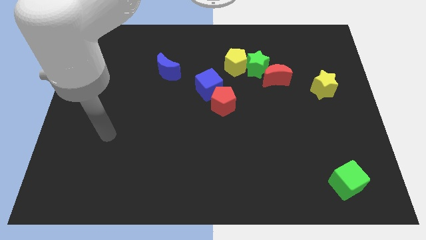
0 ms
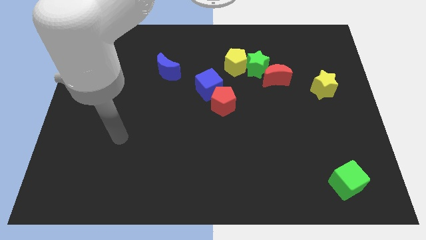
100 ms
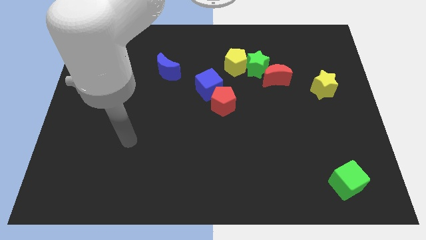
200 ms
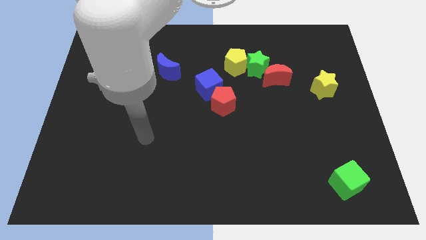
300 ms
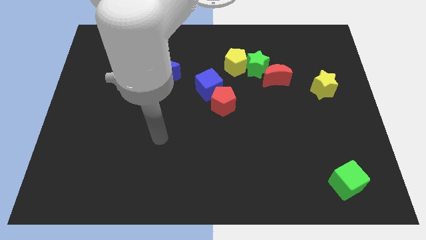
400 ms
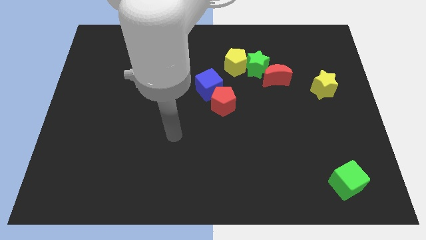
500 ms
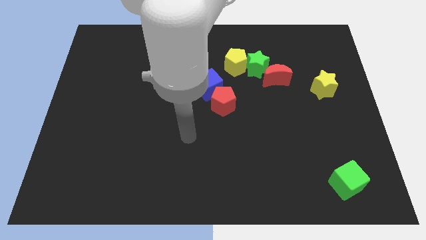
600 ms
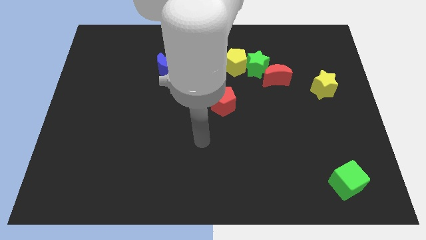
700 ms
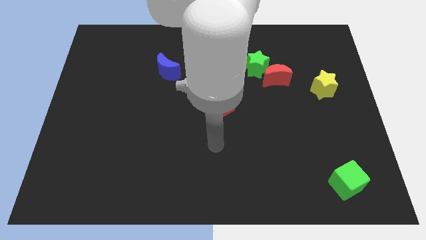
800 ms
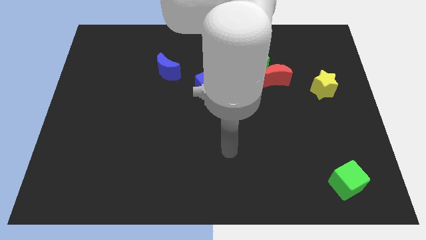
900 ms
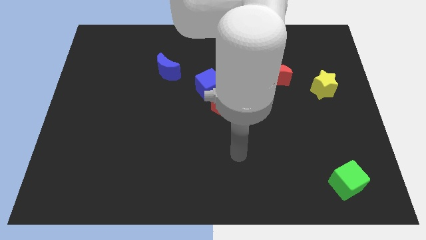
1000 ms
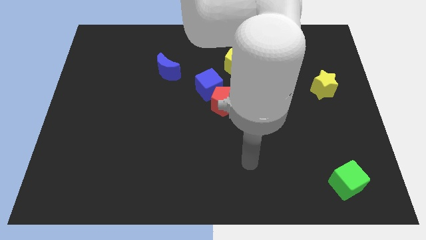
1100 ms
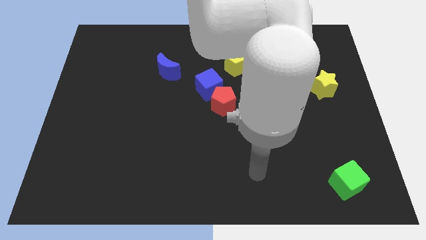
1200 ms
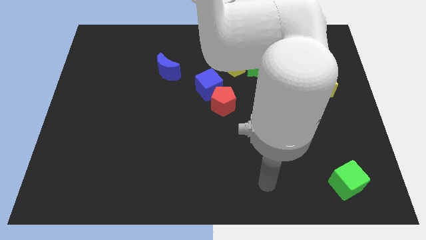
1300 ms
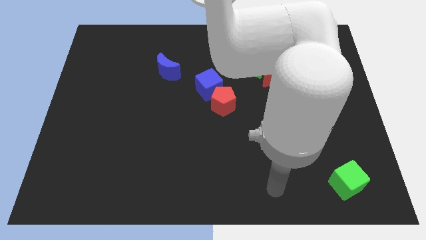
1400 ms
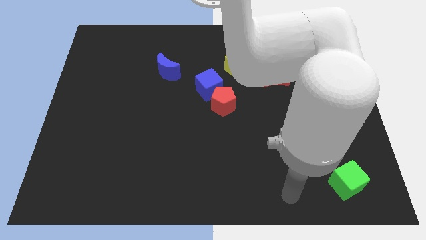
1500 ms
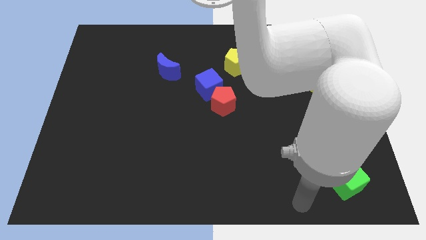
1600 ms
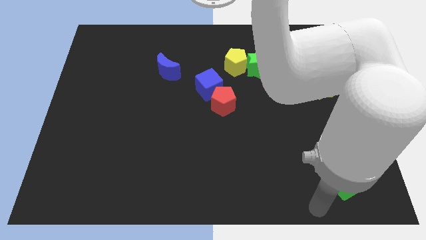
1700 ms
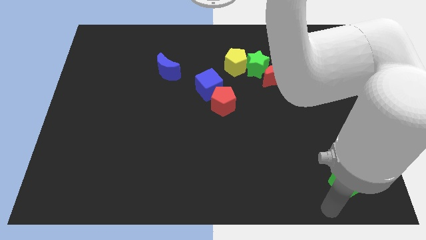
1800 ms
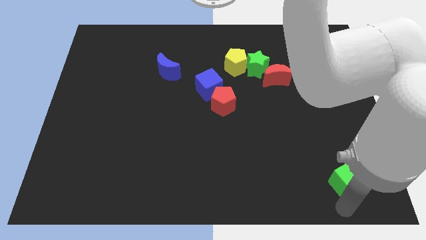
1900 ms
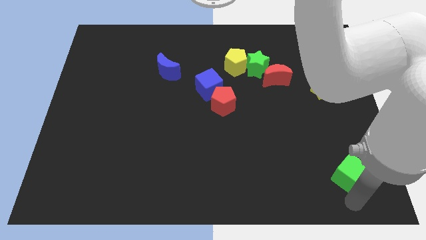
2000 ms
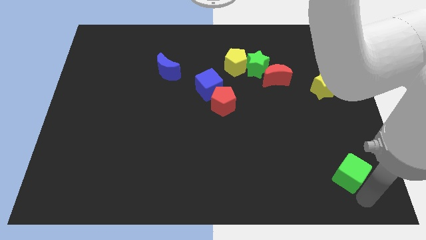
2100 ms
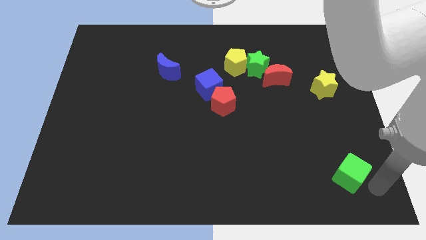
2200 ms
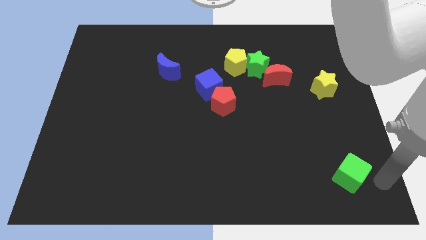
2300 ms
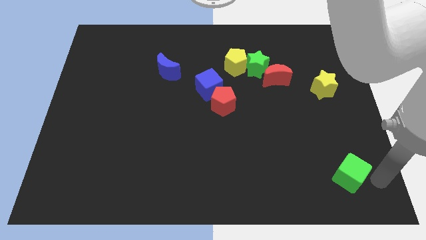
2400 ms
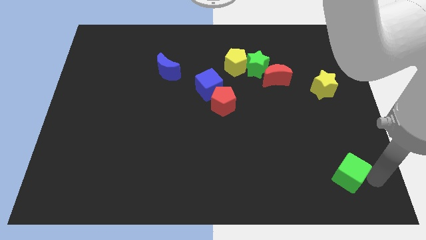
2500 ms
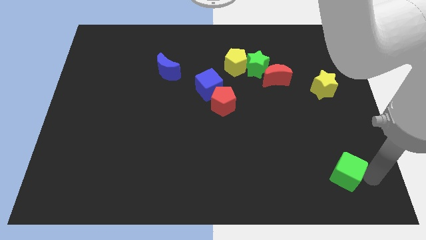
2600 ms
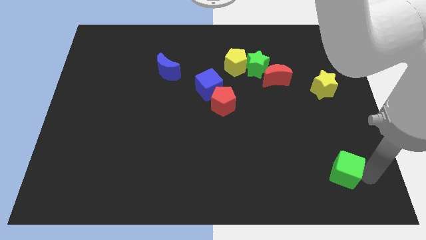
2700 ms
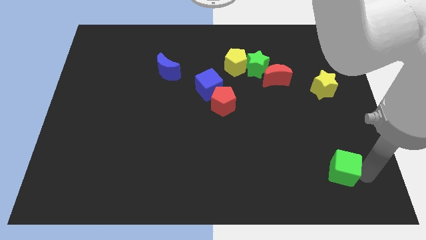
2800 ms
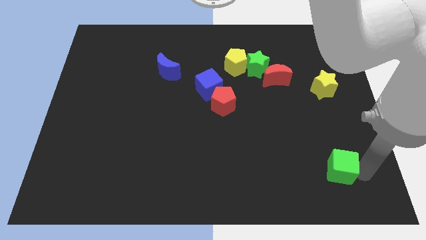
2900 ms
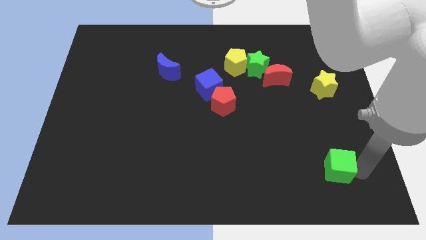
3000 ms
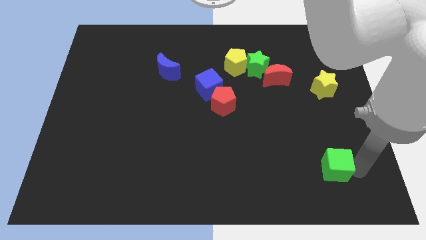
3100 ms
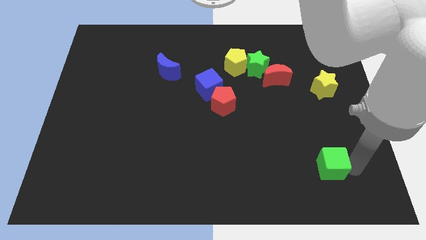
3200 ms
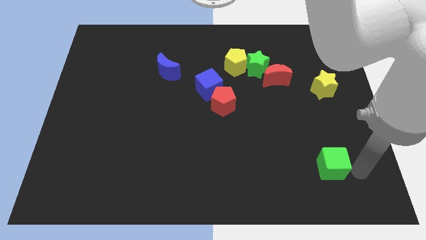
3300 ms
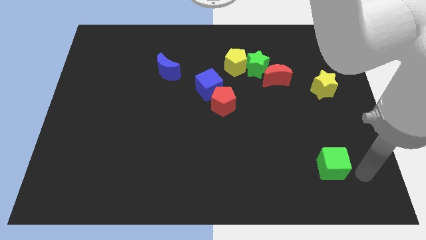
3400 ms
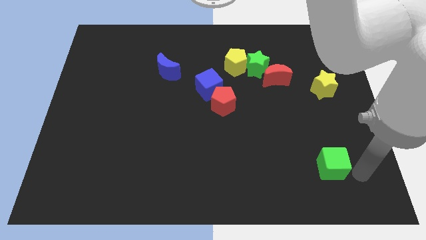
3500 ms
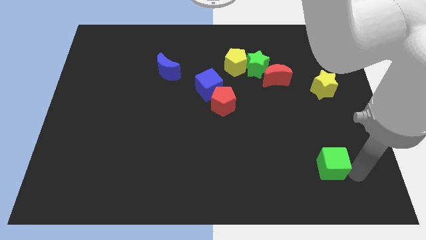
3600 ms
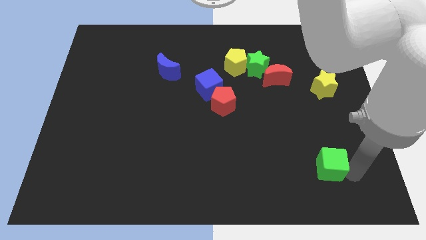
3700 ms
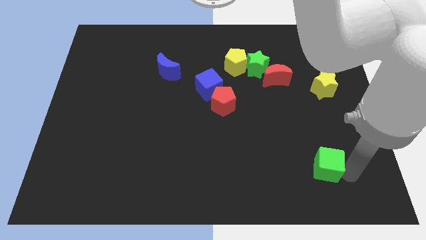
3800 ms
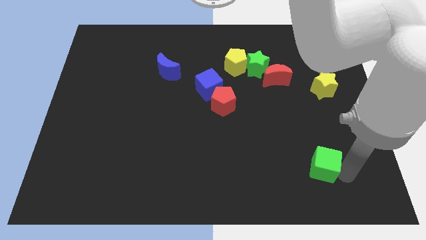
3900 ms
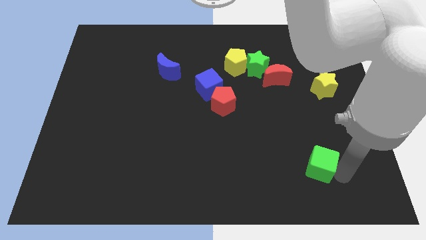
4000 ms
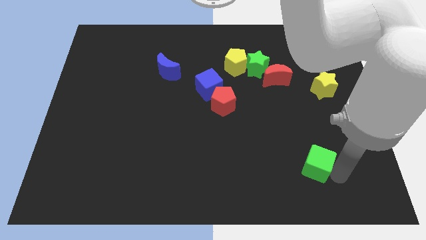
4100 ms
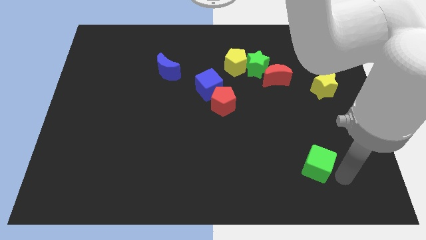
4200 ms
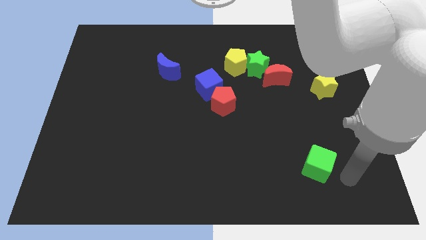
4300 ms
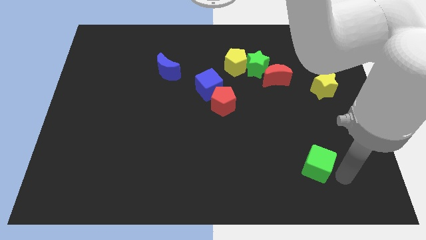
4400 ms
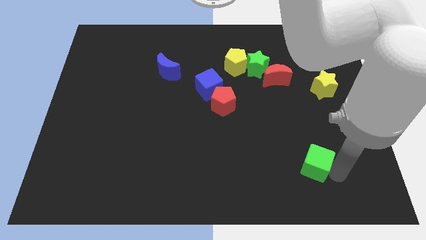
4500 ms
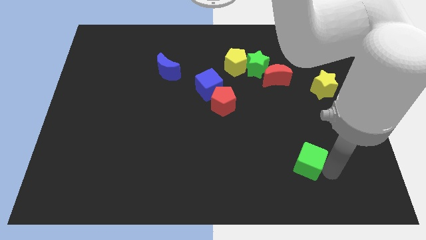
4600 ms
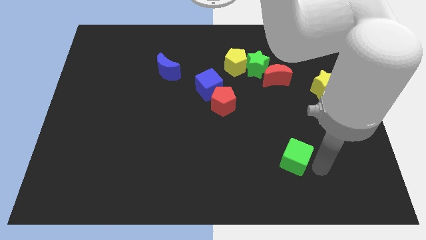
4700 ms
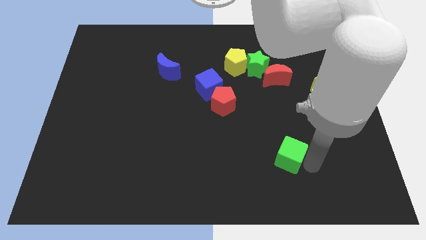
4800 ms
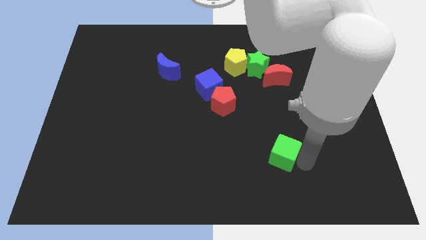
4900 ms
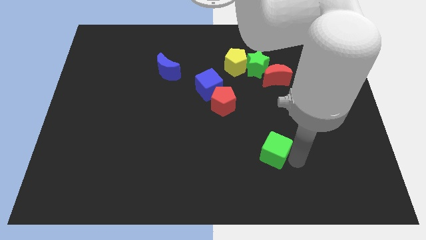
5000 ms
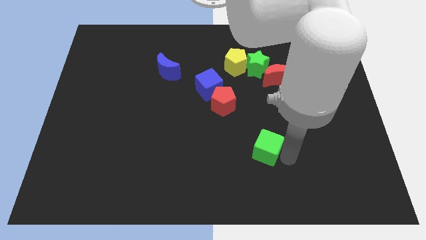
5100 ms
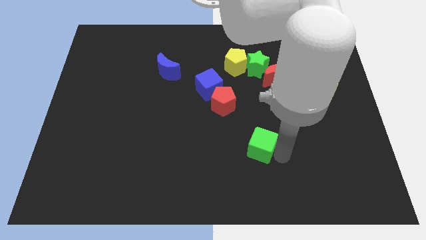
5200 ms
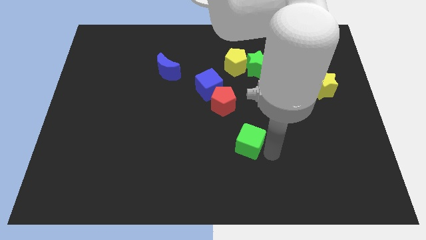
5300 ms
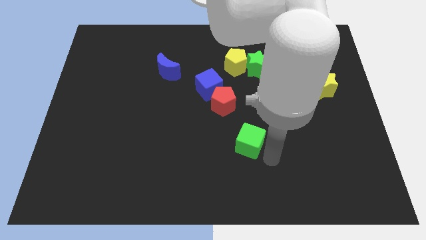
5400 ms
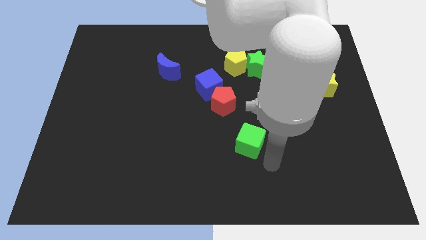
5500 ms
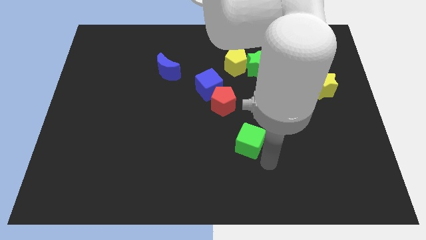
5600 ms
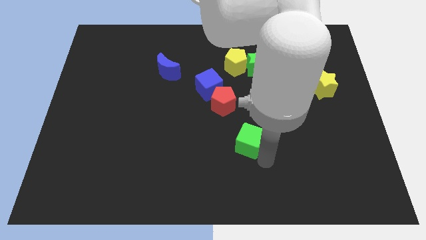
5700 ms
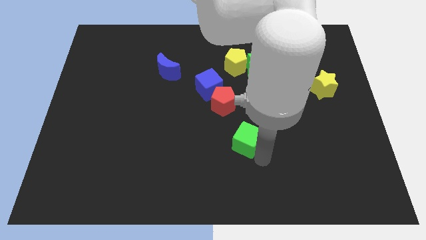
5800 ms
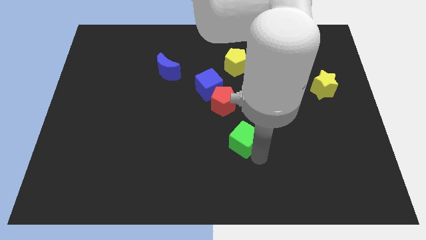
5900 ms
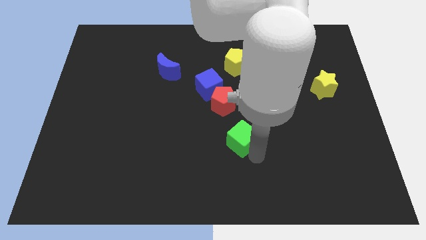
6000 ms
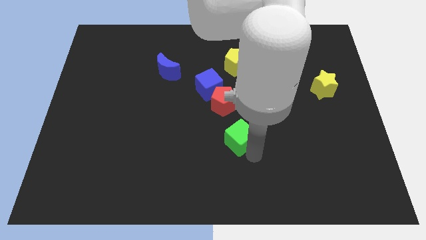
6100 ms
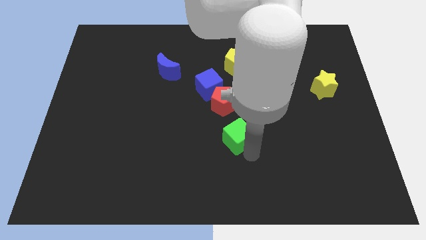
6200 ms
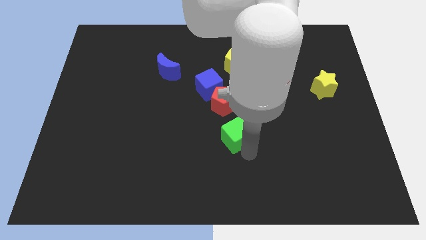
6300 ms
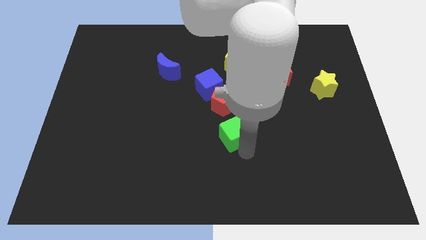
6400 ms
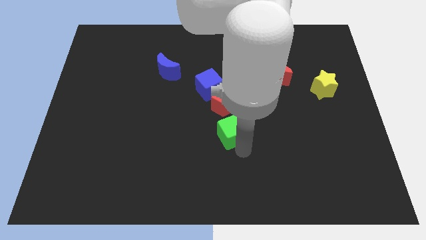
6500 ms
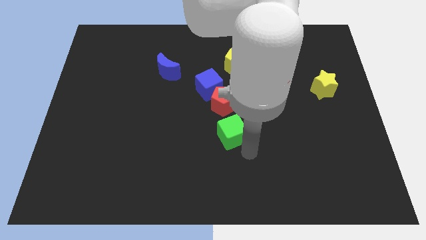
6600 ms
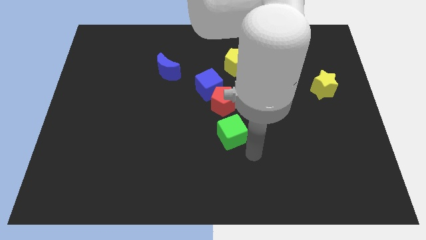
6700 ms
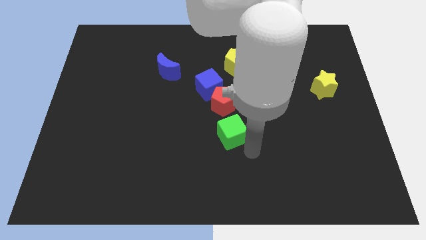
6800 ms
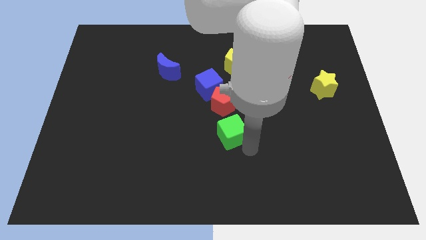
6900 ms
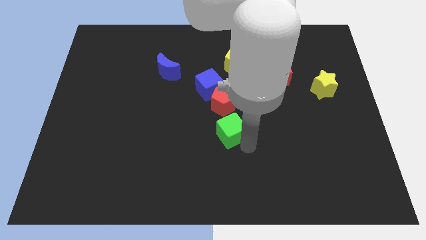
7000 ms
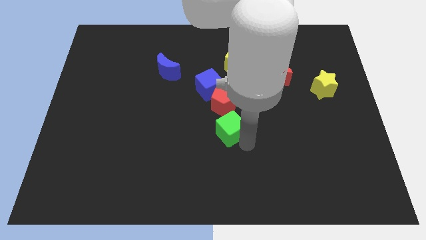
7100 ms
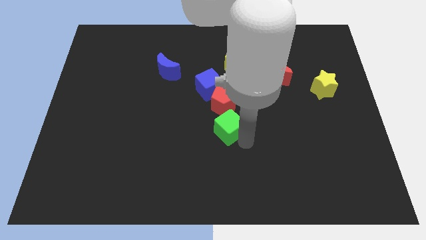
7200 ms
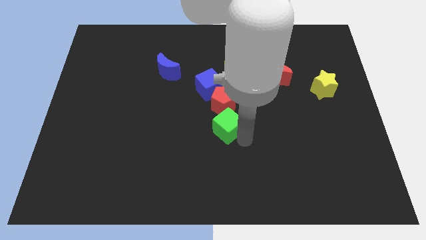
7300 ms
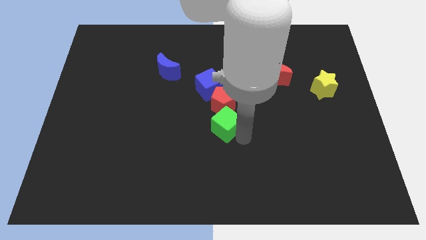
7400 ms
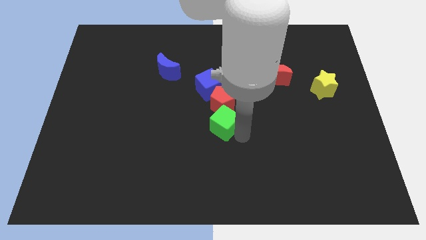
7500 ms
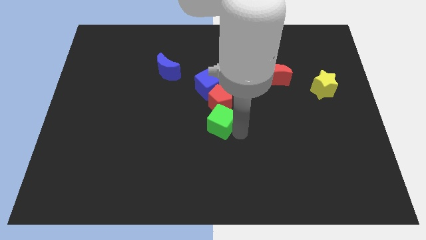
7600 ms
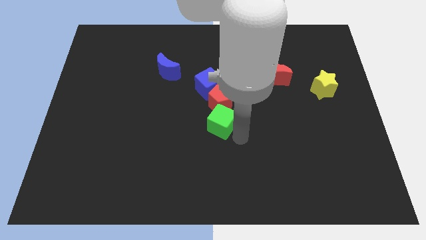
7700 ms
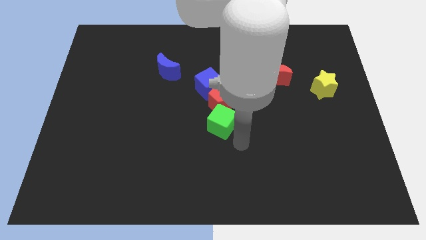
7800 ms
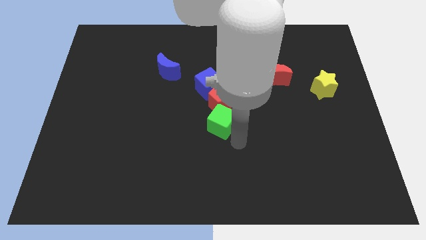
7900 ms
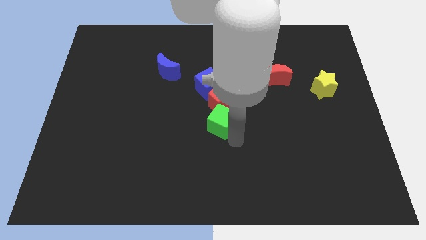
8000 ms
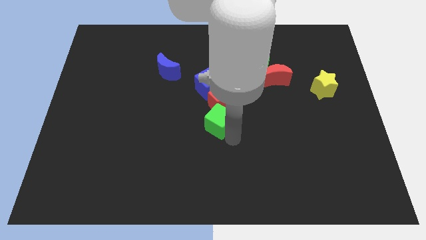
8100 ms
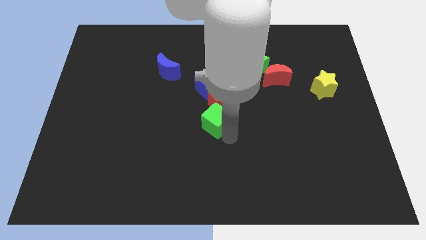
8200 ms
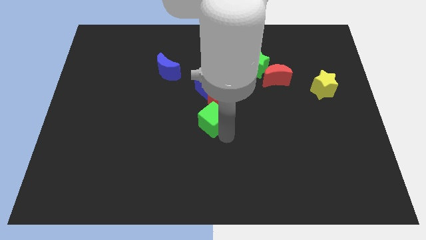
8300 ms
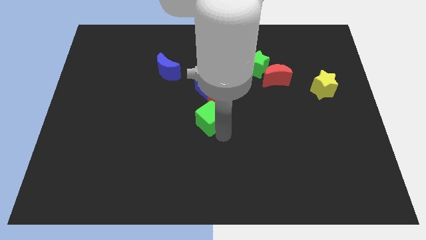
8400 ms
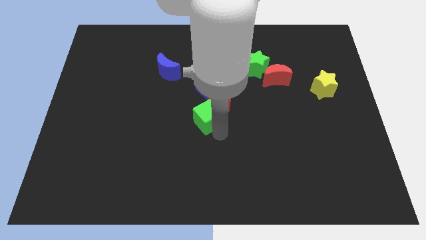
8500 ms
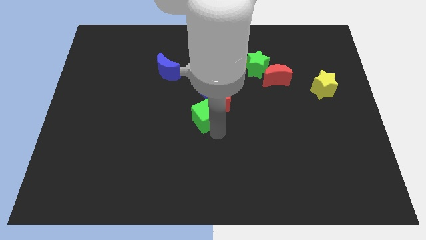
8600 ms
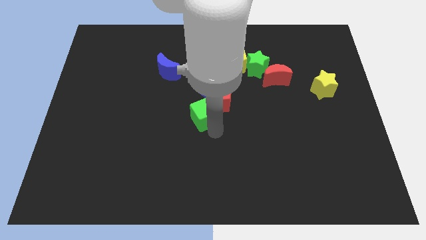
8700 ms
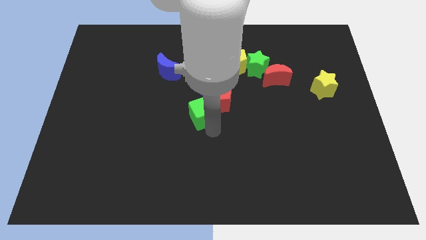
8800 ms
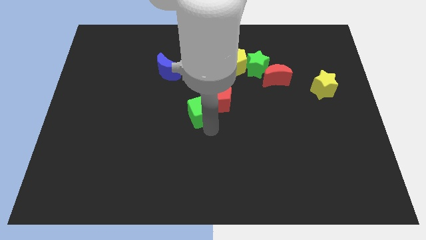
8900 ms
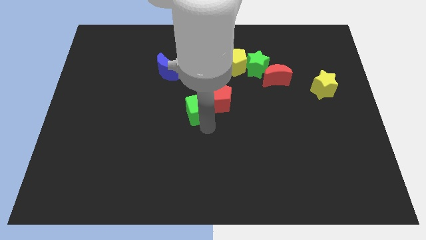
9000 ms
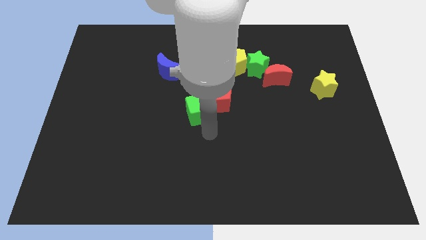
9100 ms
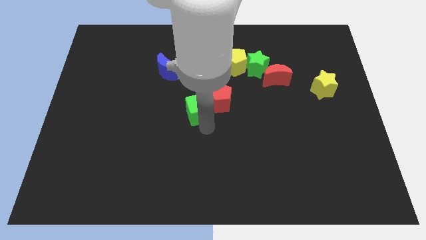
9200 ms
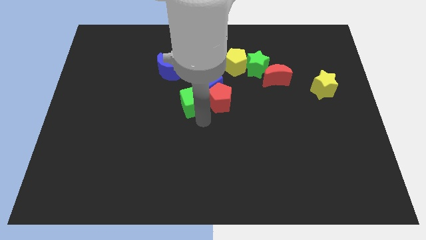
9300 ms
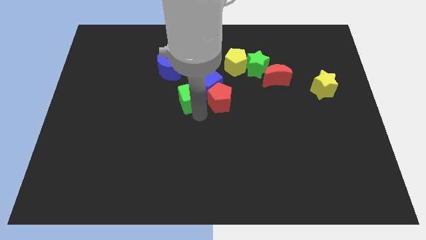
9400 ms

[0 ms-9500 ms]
slide the green cube to the bottom right side of the blue moon
